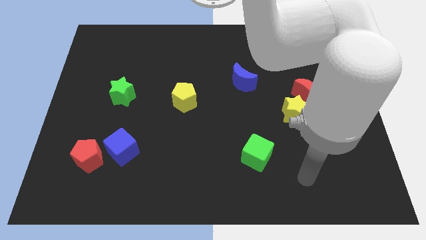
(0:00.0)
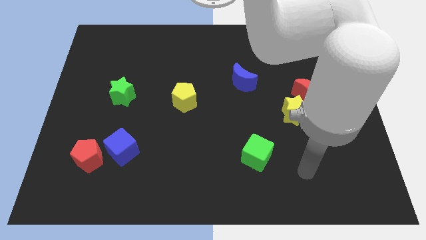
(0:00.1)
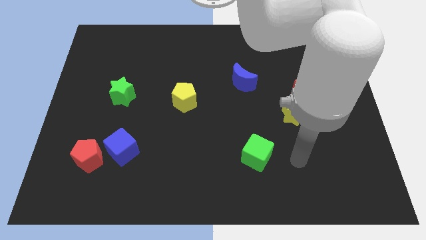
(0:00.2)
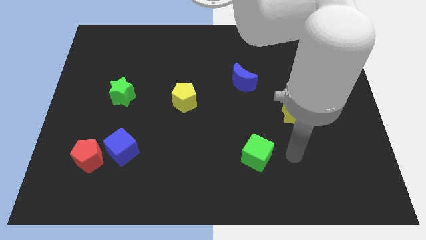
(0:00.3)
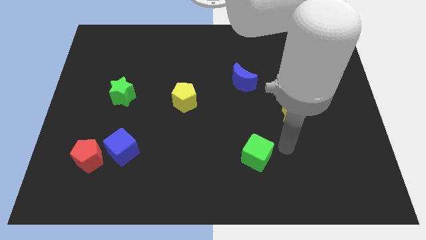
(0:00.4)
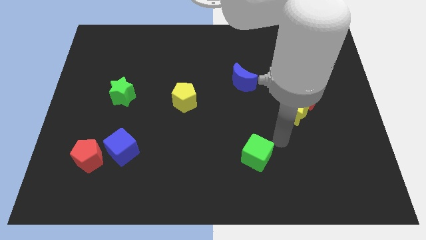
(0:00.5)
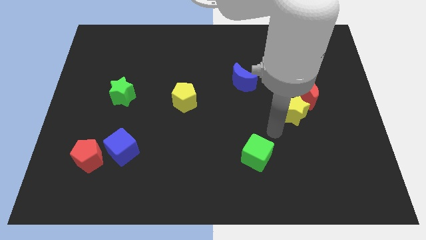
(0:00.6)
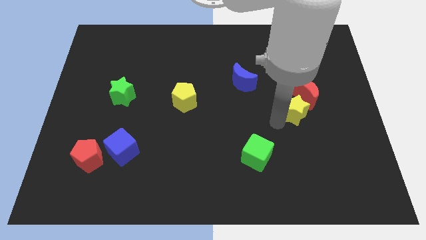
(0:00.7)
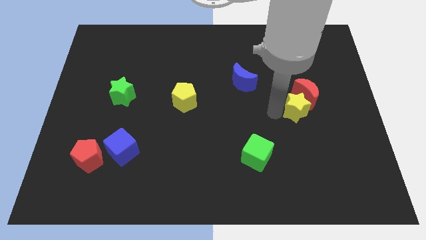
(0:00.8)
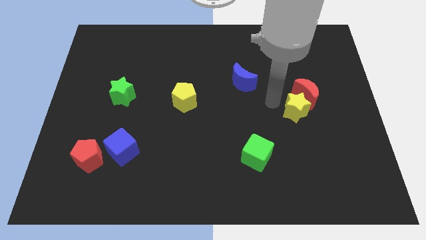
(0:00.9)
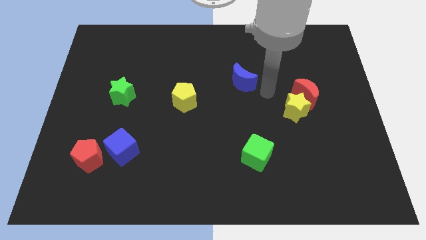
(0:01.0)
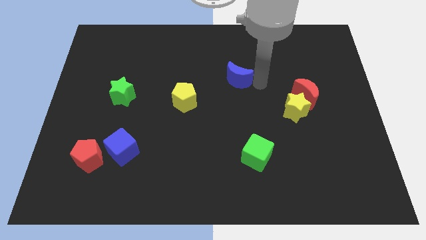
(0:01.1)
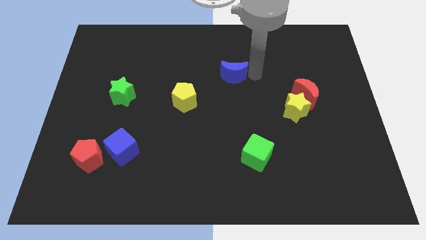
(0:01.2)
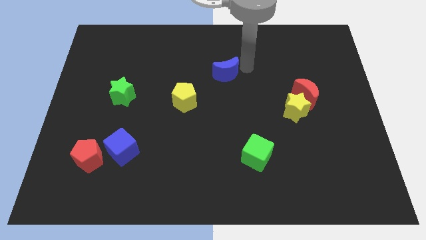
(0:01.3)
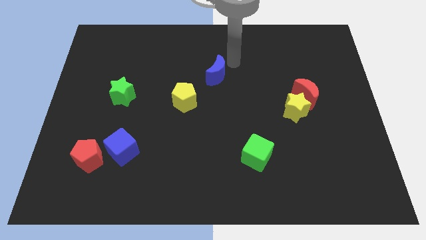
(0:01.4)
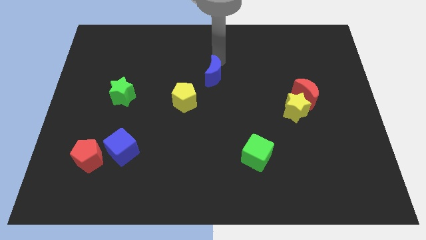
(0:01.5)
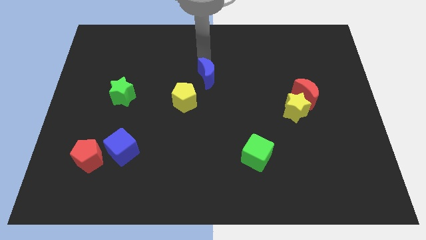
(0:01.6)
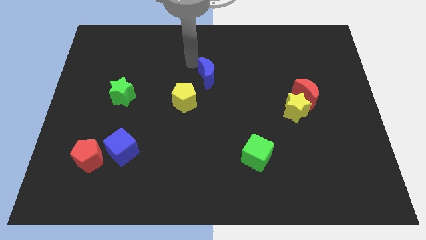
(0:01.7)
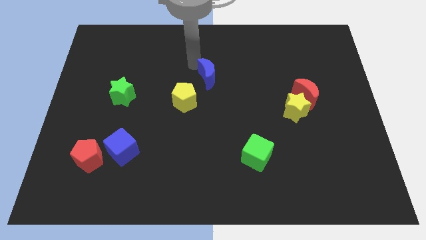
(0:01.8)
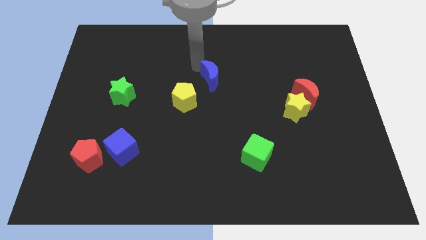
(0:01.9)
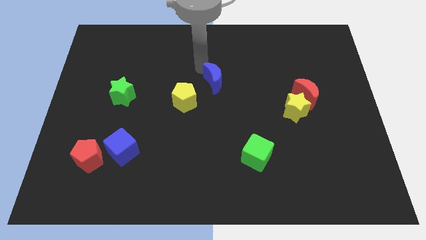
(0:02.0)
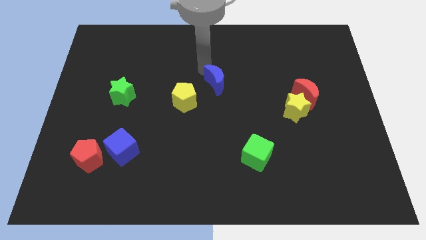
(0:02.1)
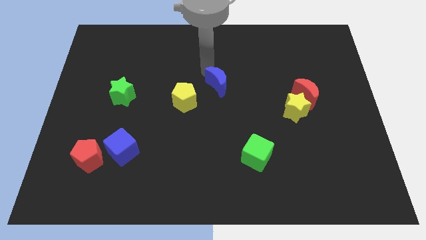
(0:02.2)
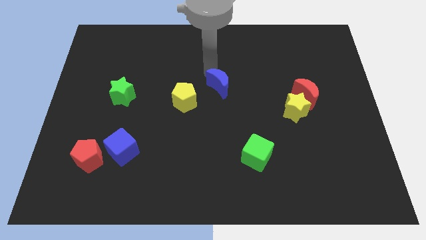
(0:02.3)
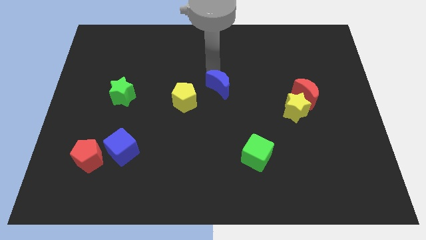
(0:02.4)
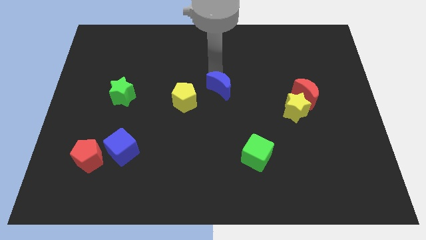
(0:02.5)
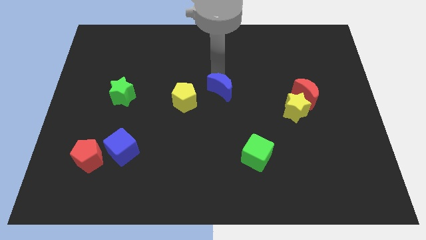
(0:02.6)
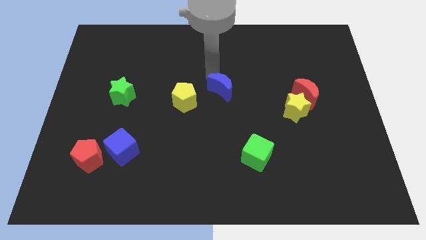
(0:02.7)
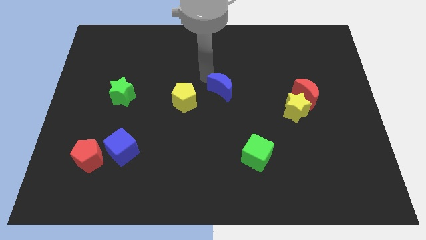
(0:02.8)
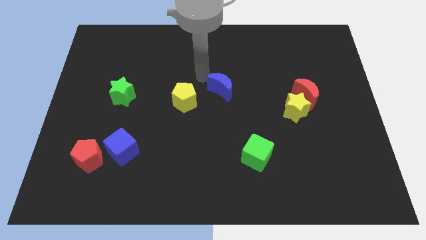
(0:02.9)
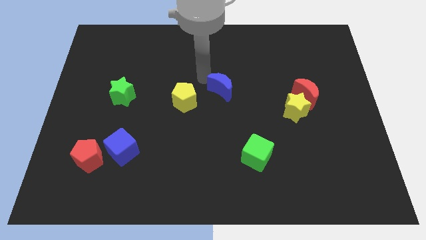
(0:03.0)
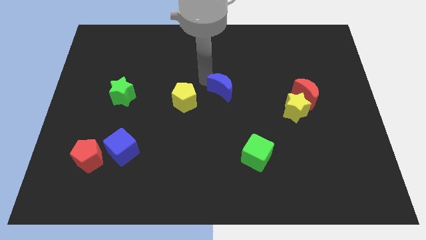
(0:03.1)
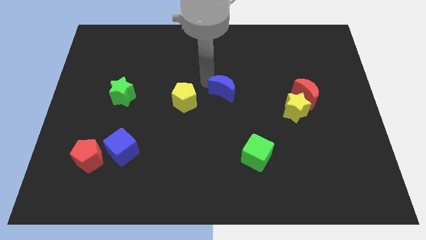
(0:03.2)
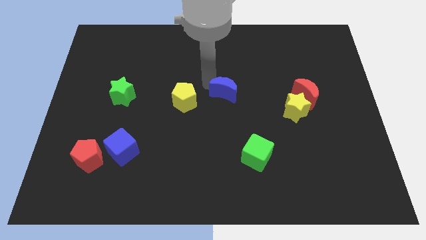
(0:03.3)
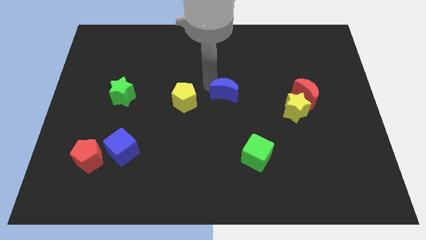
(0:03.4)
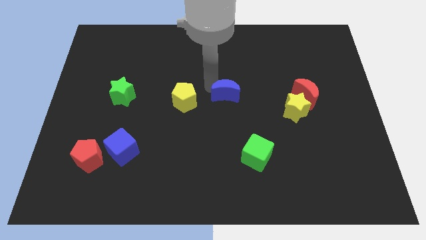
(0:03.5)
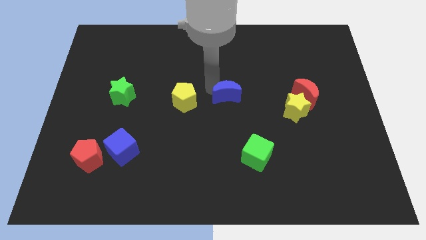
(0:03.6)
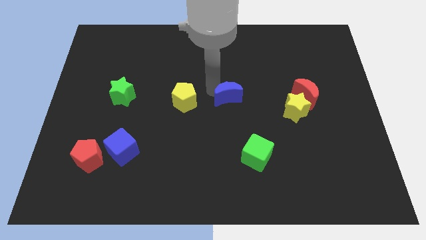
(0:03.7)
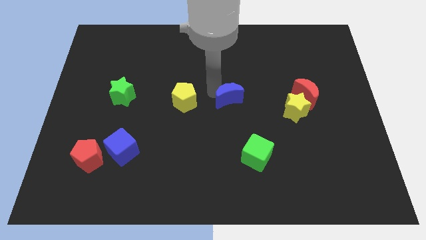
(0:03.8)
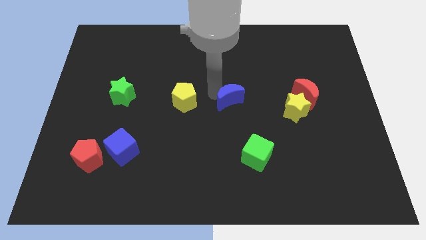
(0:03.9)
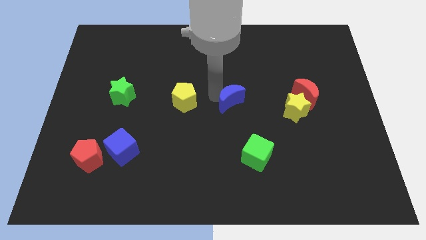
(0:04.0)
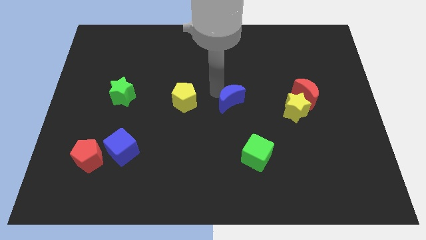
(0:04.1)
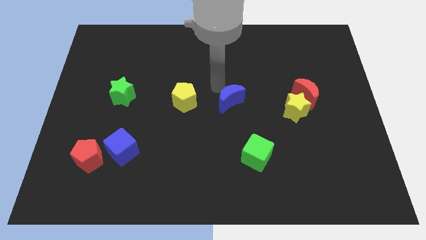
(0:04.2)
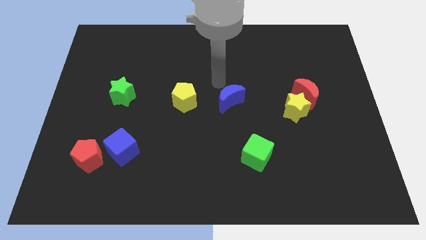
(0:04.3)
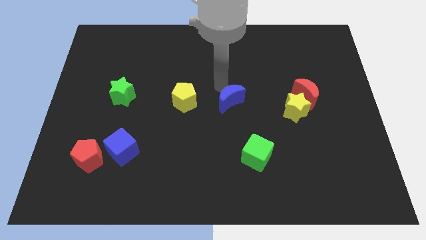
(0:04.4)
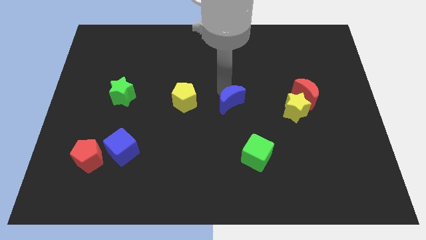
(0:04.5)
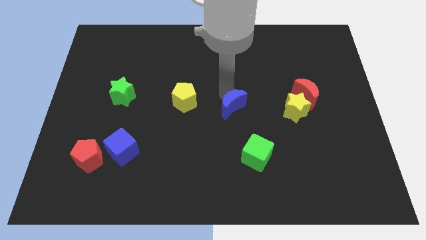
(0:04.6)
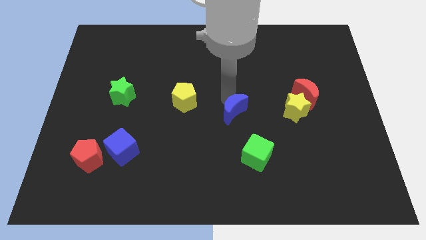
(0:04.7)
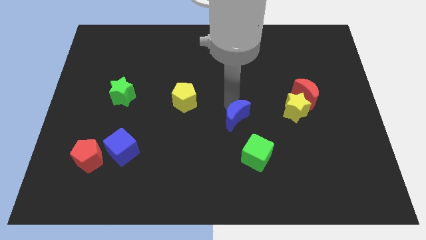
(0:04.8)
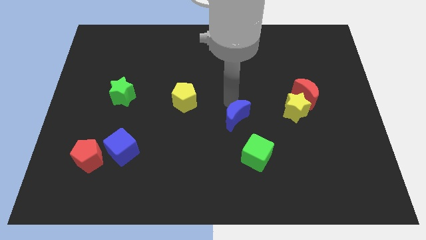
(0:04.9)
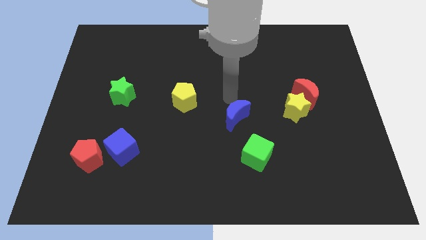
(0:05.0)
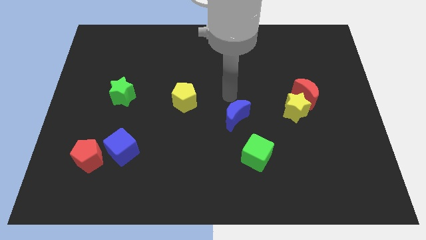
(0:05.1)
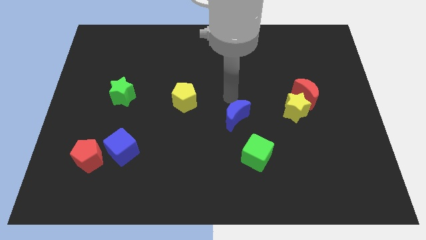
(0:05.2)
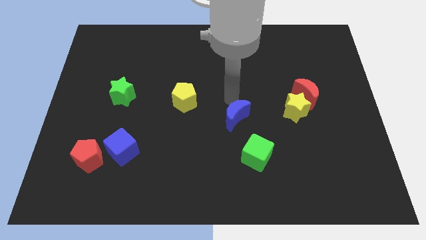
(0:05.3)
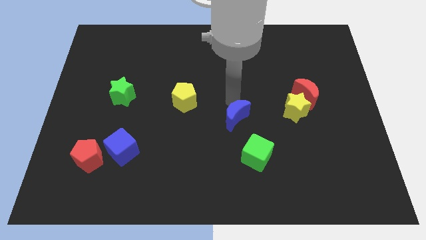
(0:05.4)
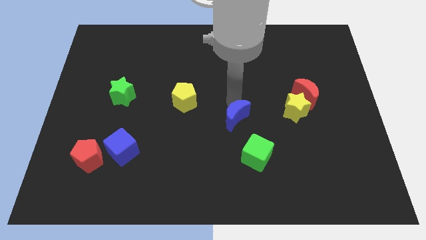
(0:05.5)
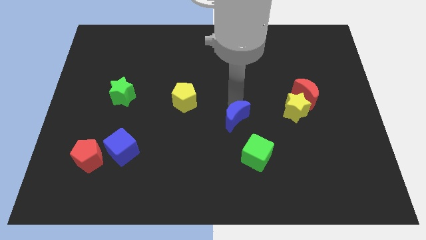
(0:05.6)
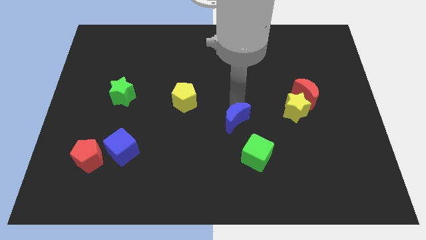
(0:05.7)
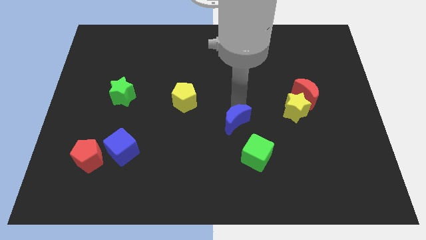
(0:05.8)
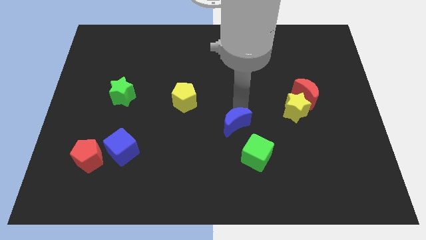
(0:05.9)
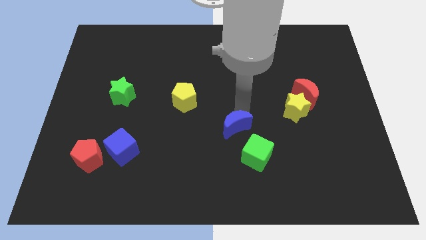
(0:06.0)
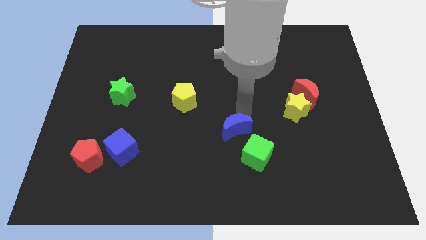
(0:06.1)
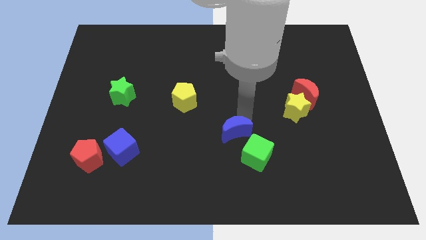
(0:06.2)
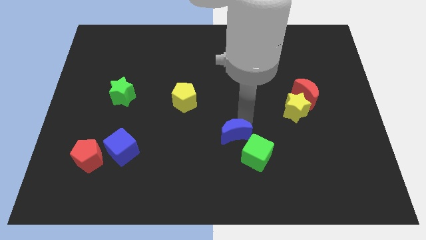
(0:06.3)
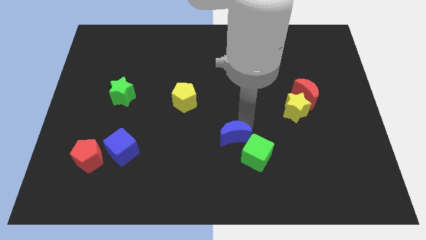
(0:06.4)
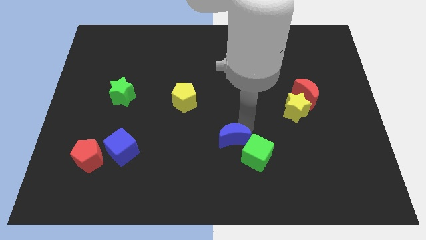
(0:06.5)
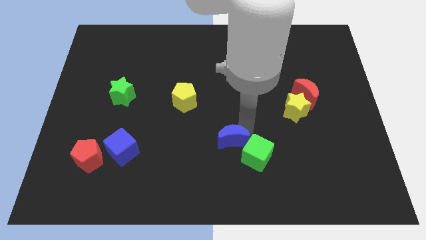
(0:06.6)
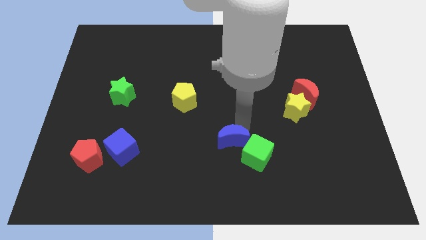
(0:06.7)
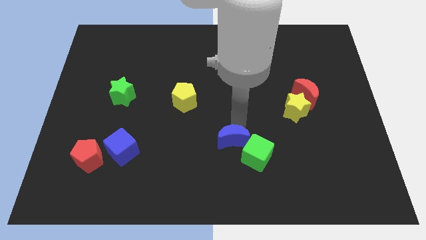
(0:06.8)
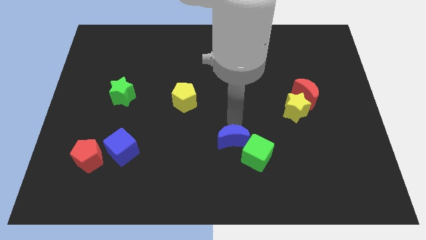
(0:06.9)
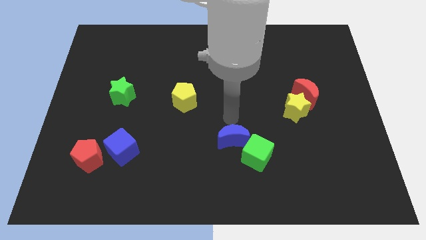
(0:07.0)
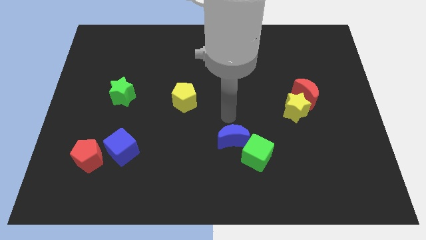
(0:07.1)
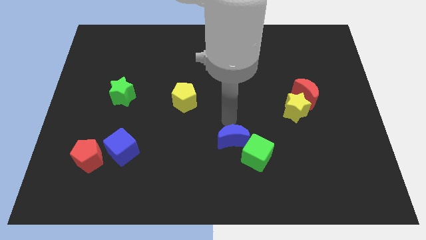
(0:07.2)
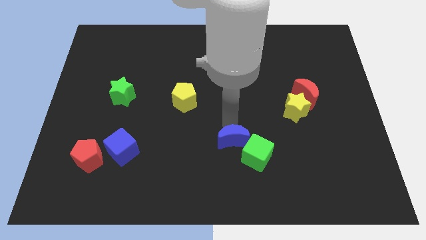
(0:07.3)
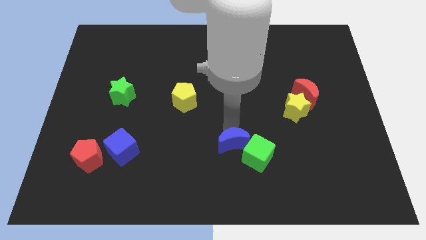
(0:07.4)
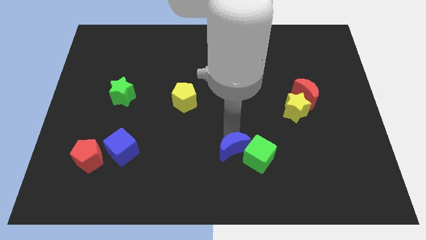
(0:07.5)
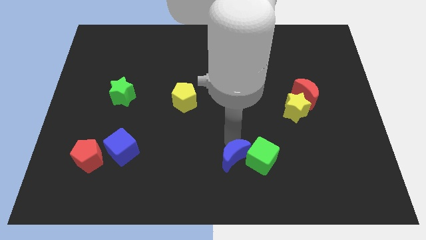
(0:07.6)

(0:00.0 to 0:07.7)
push the blue moon to the bottom left side of the green cube
